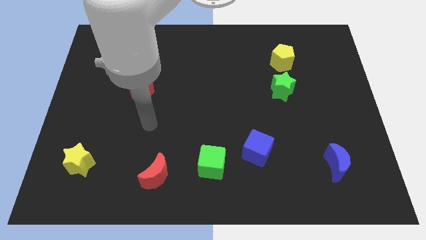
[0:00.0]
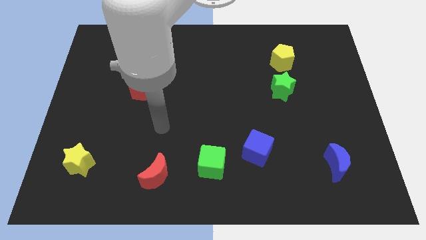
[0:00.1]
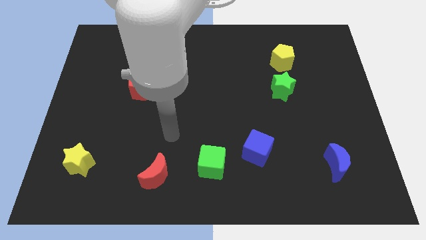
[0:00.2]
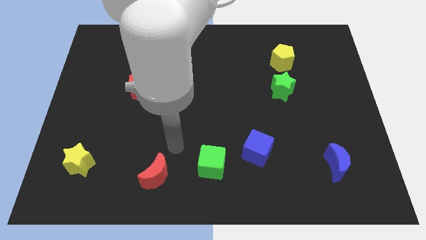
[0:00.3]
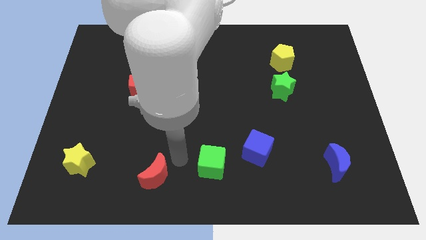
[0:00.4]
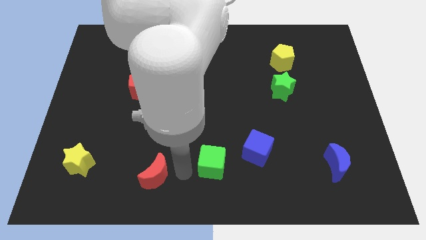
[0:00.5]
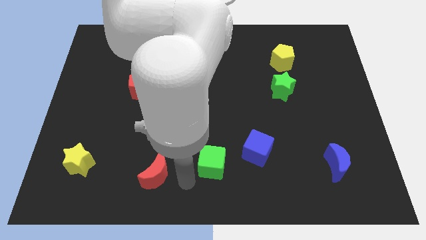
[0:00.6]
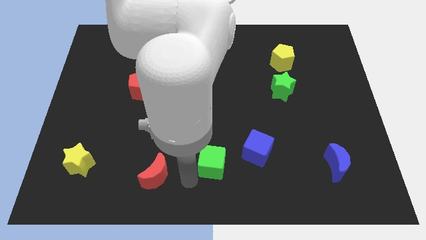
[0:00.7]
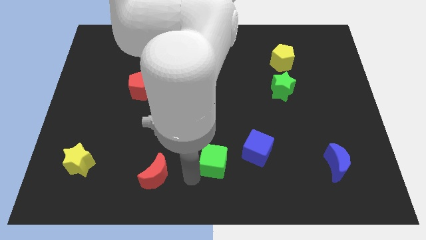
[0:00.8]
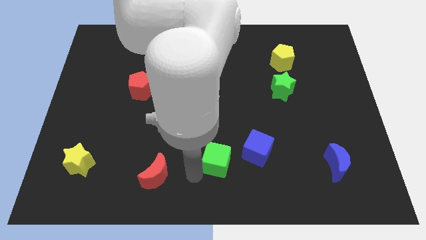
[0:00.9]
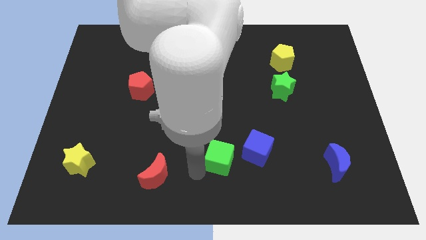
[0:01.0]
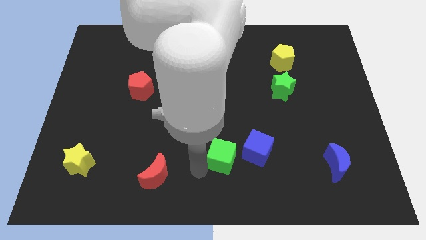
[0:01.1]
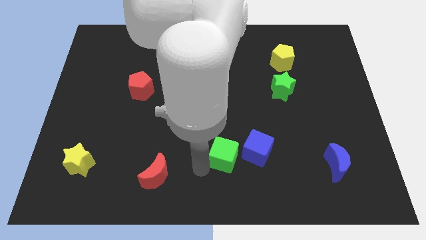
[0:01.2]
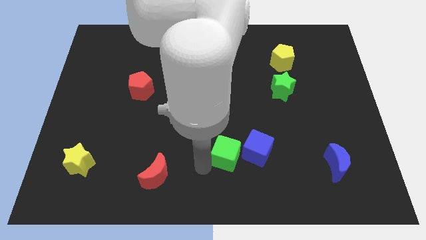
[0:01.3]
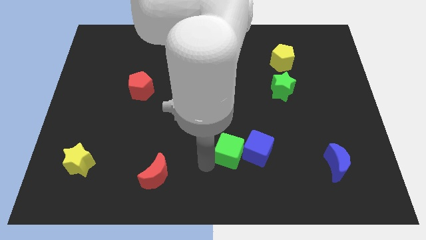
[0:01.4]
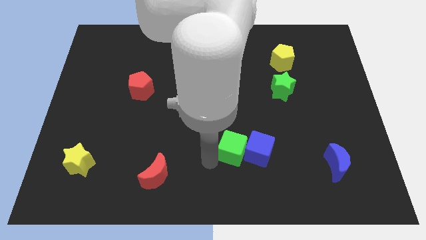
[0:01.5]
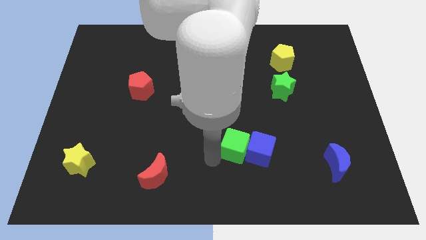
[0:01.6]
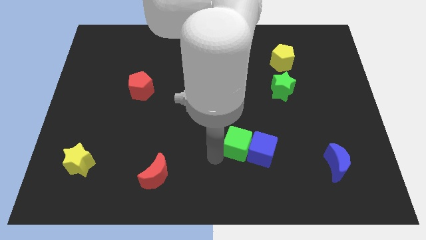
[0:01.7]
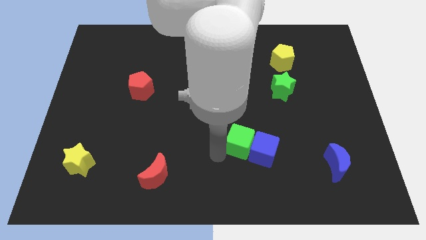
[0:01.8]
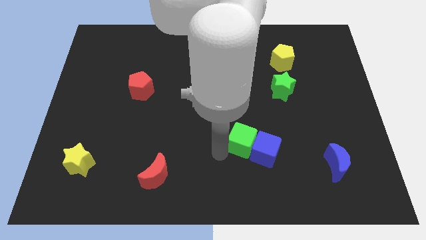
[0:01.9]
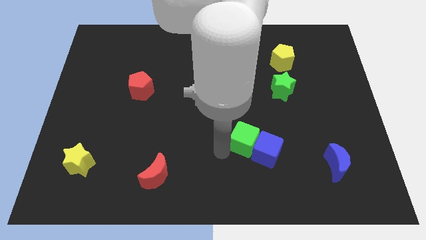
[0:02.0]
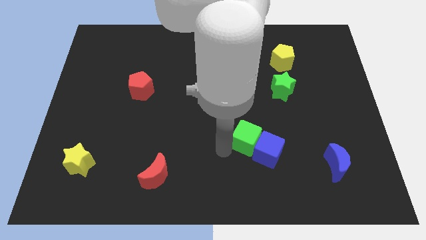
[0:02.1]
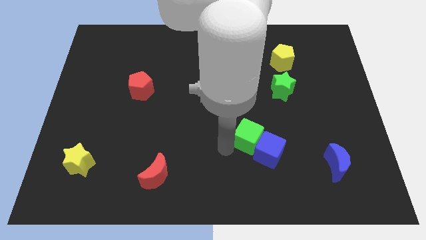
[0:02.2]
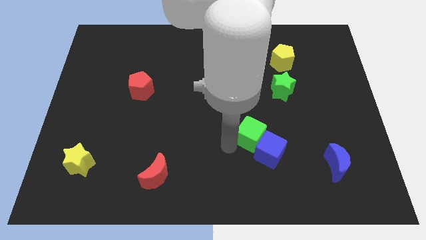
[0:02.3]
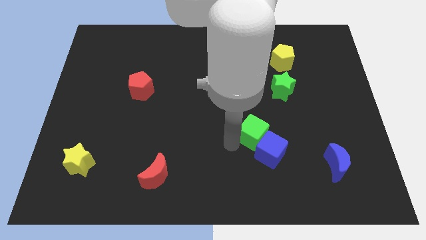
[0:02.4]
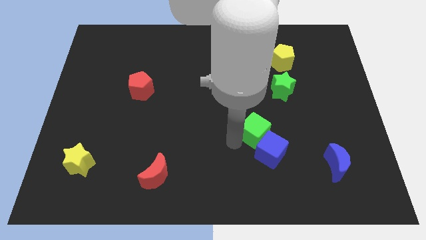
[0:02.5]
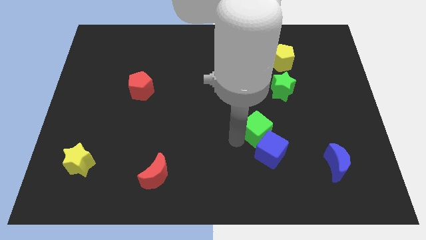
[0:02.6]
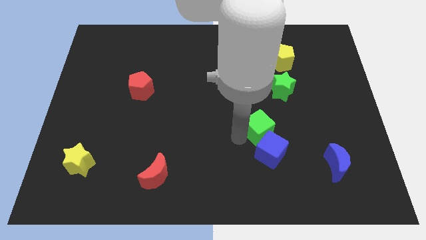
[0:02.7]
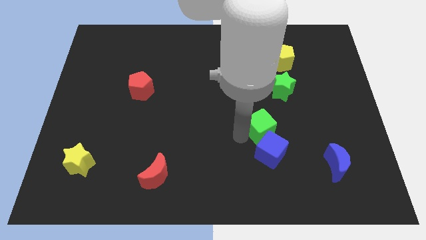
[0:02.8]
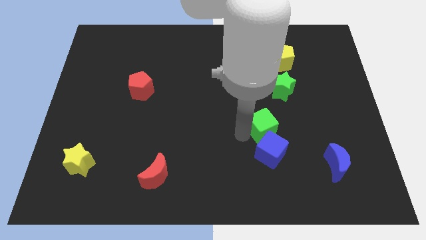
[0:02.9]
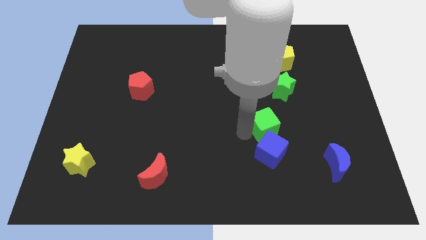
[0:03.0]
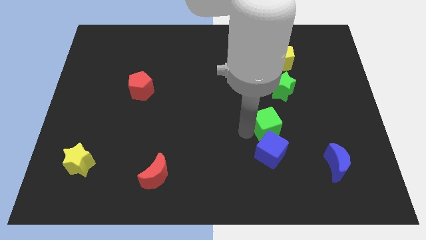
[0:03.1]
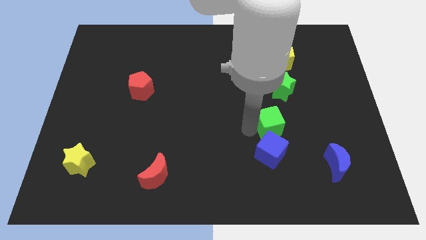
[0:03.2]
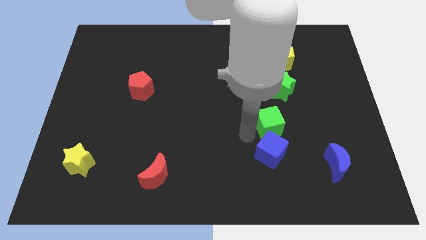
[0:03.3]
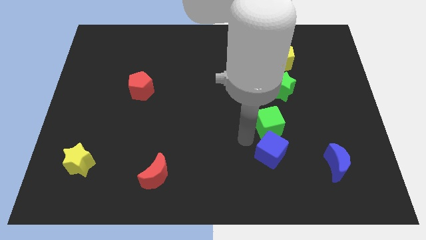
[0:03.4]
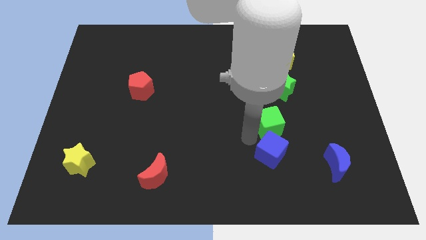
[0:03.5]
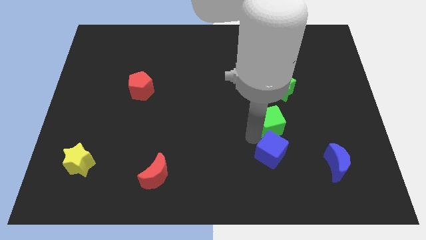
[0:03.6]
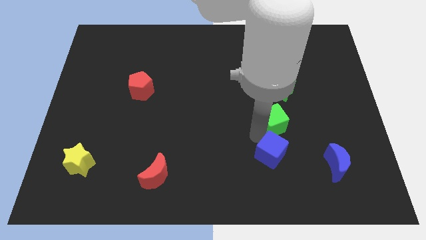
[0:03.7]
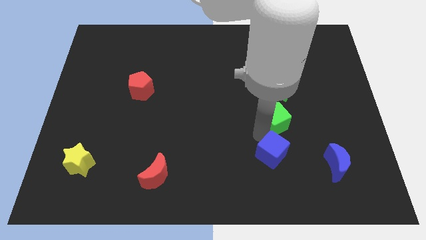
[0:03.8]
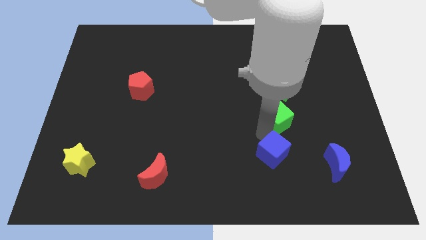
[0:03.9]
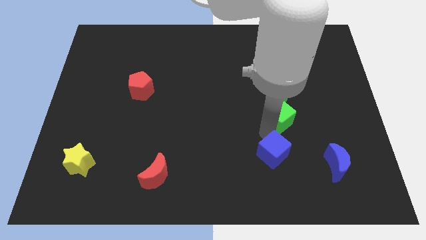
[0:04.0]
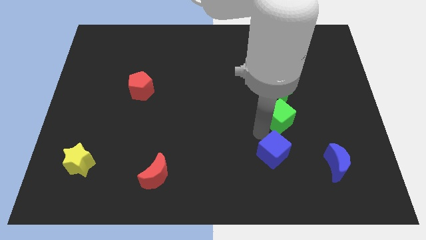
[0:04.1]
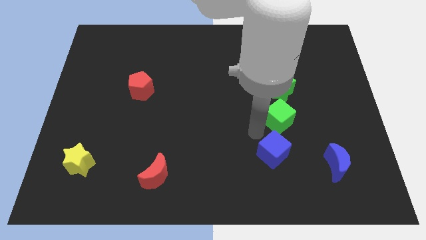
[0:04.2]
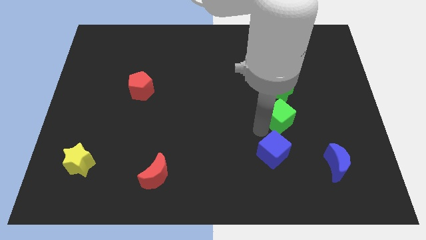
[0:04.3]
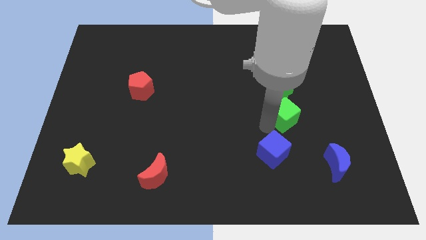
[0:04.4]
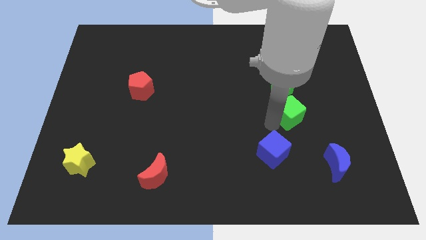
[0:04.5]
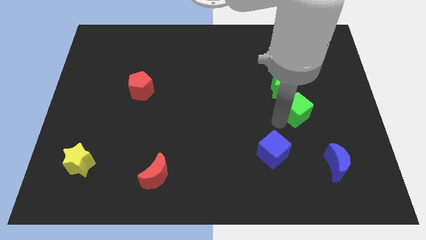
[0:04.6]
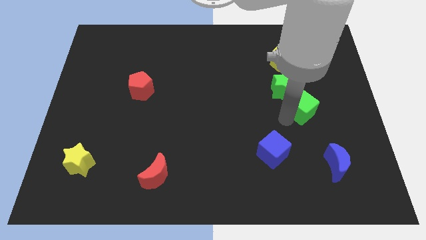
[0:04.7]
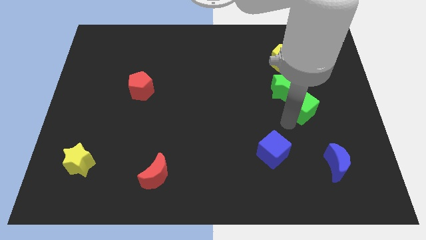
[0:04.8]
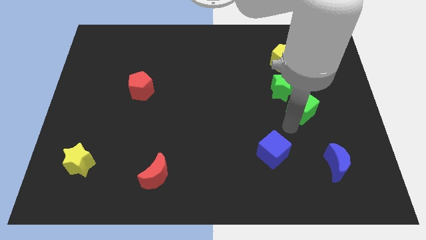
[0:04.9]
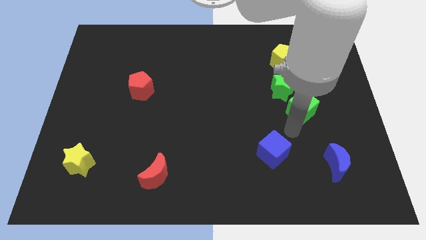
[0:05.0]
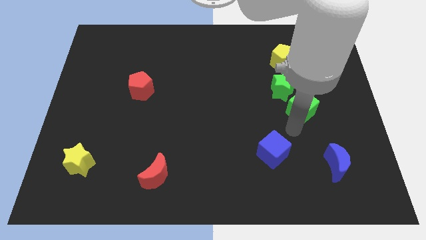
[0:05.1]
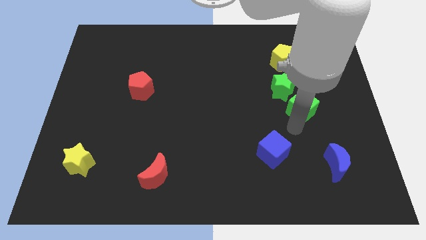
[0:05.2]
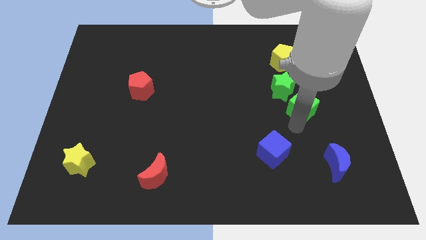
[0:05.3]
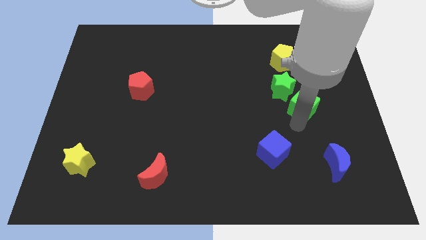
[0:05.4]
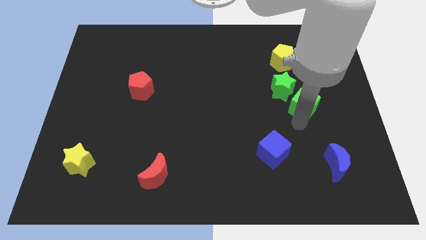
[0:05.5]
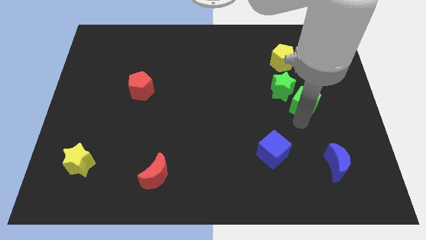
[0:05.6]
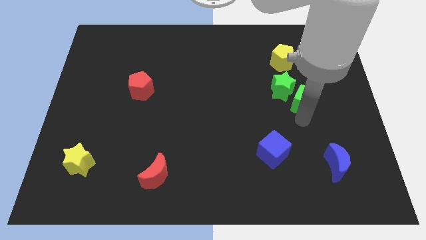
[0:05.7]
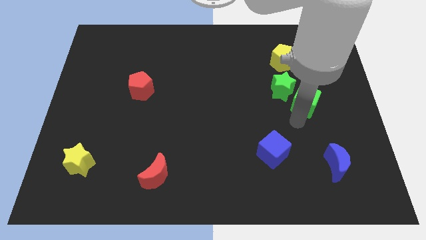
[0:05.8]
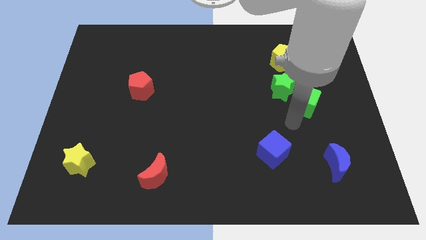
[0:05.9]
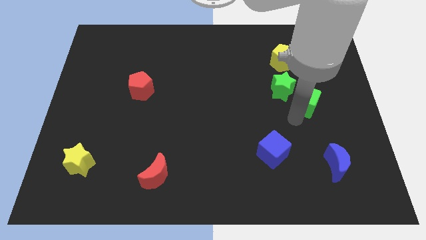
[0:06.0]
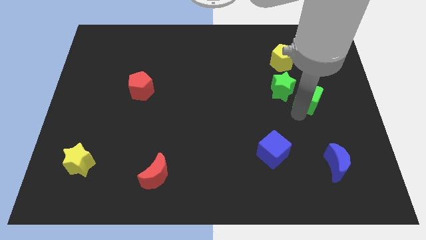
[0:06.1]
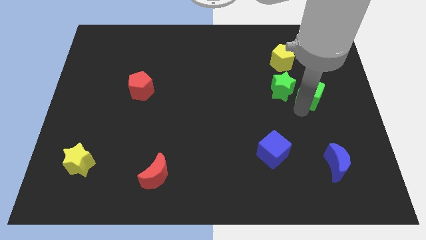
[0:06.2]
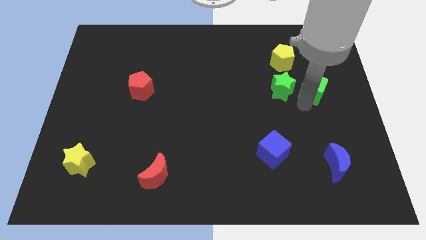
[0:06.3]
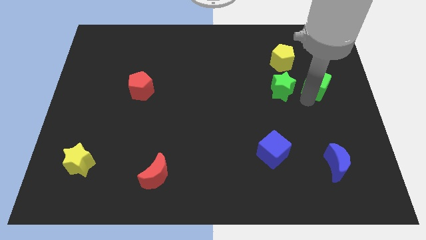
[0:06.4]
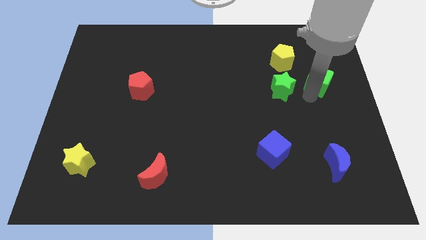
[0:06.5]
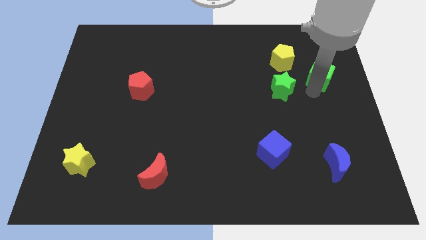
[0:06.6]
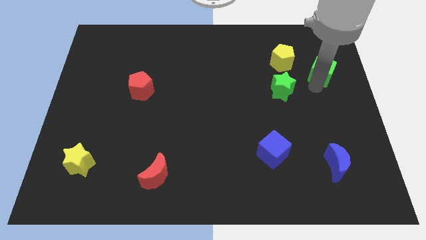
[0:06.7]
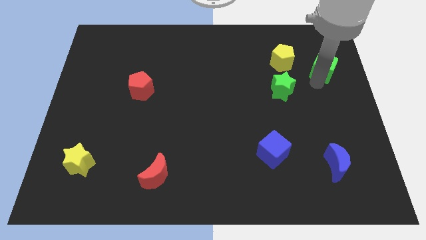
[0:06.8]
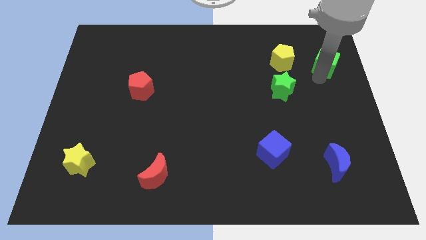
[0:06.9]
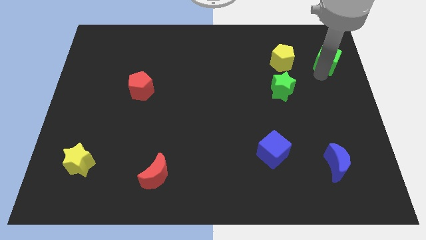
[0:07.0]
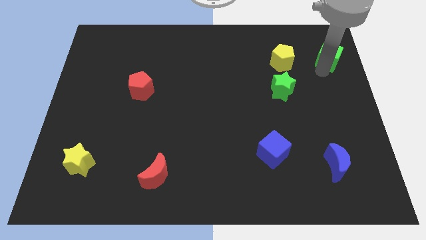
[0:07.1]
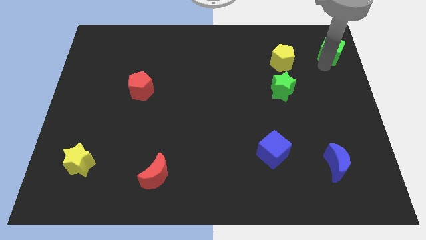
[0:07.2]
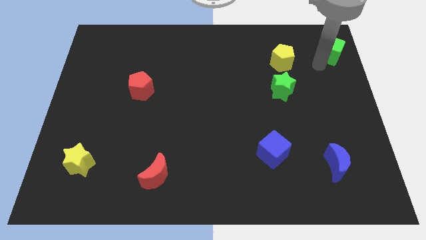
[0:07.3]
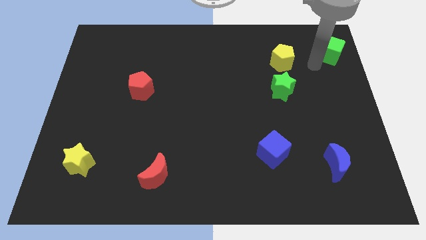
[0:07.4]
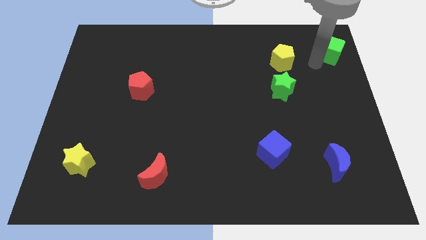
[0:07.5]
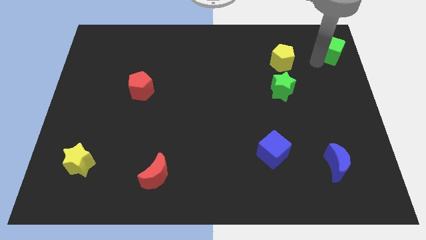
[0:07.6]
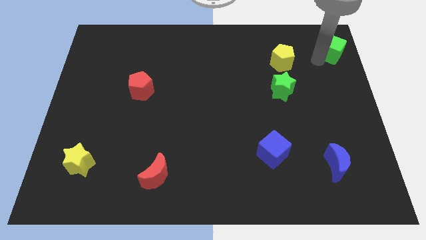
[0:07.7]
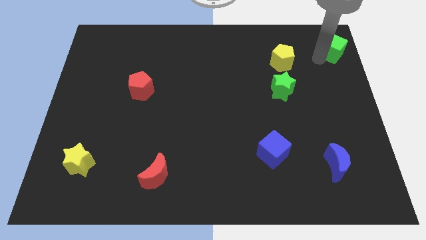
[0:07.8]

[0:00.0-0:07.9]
push the green cube to the top right corner
